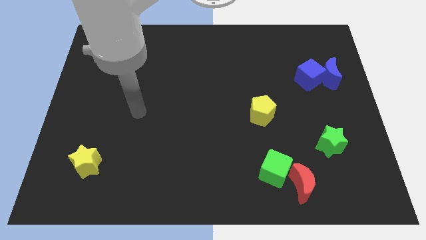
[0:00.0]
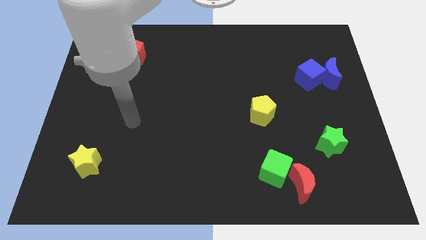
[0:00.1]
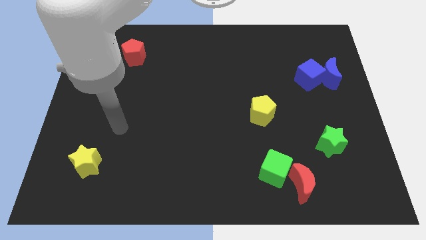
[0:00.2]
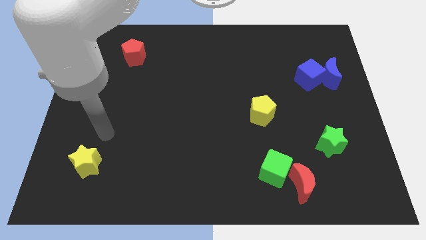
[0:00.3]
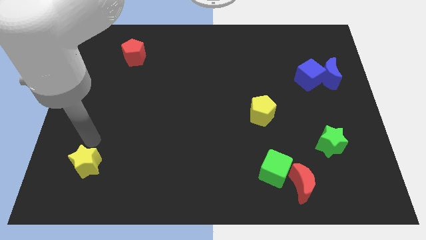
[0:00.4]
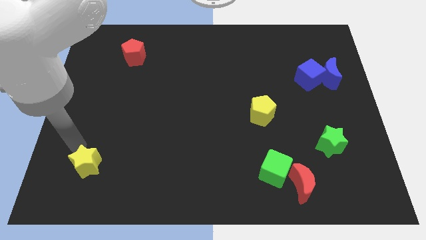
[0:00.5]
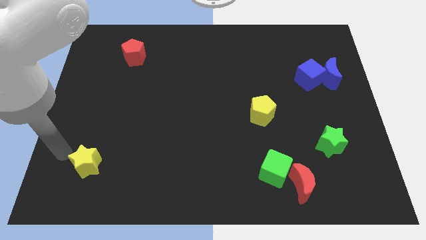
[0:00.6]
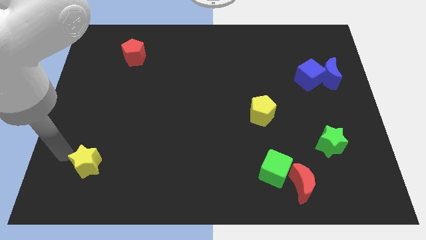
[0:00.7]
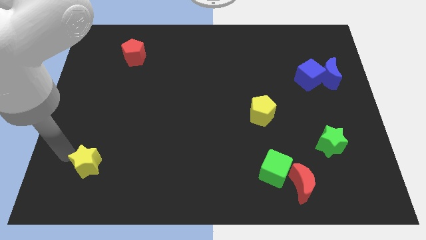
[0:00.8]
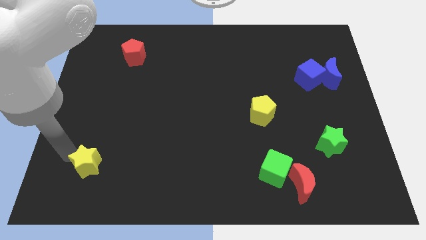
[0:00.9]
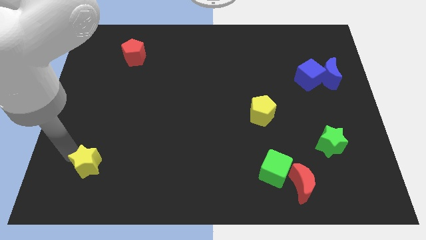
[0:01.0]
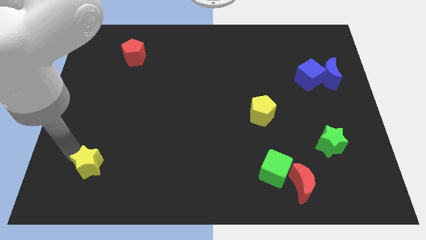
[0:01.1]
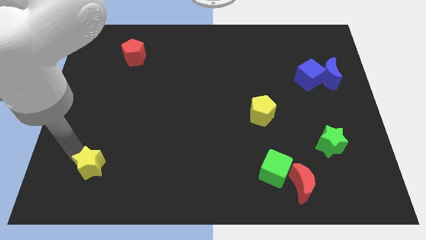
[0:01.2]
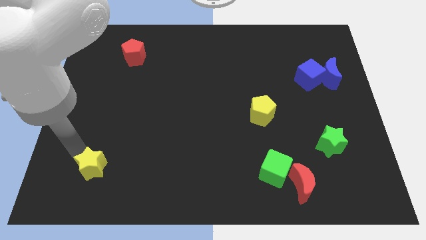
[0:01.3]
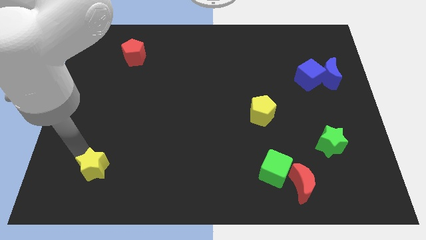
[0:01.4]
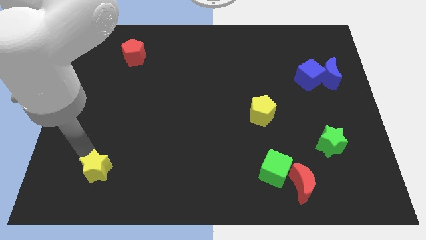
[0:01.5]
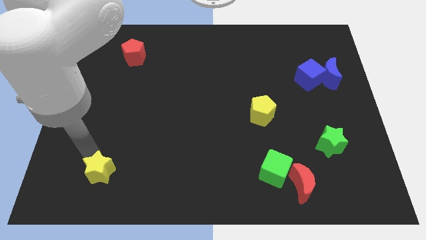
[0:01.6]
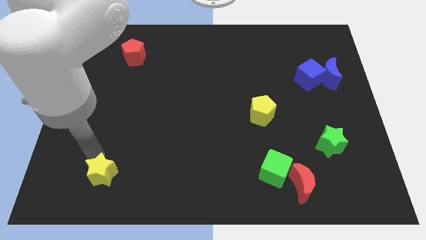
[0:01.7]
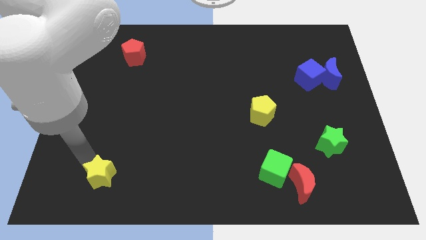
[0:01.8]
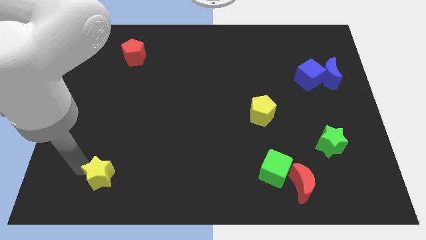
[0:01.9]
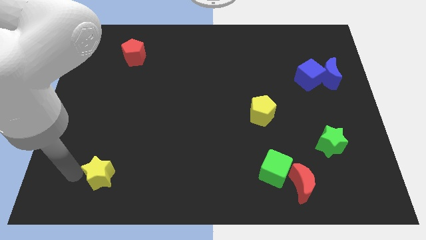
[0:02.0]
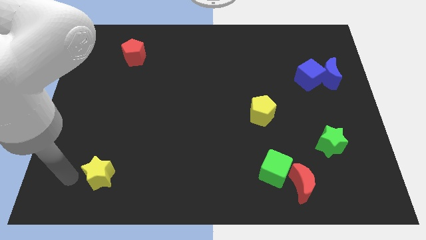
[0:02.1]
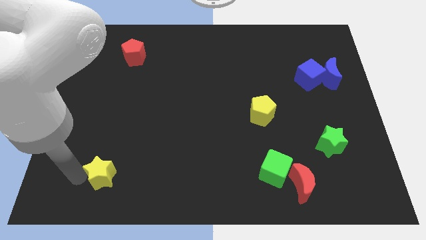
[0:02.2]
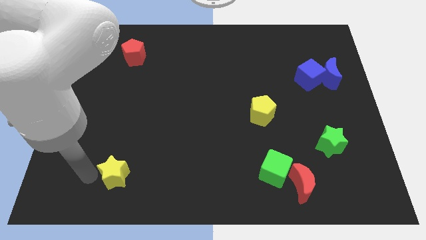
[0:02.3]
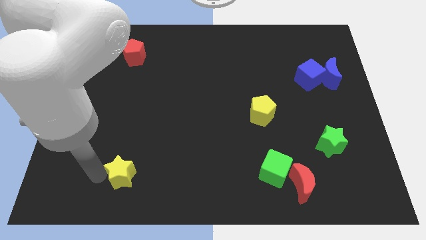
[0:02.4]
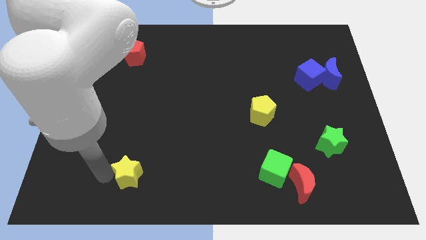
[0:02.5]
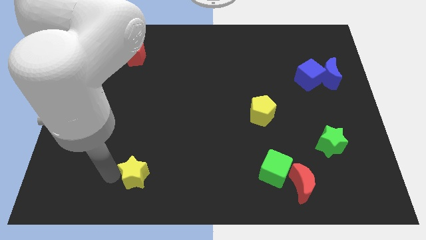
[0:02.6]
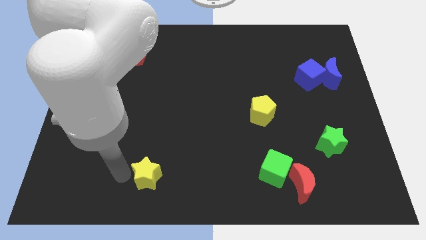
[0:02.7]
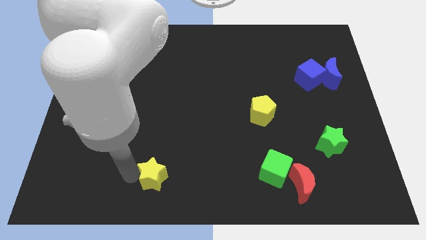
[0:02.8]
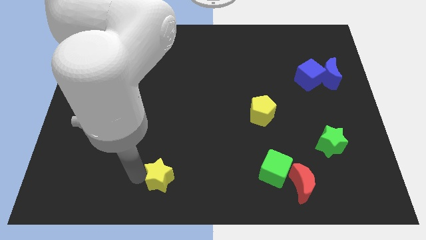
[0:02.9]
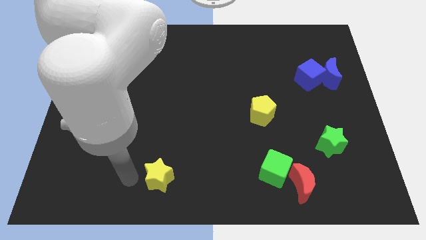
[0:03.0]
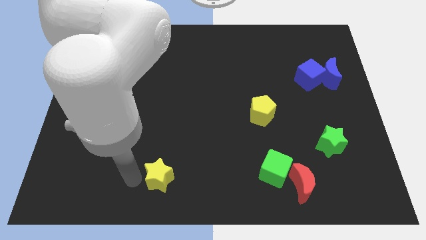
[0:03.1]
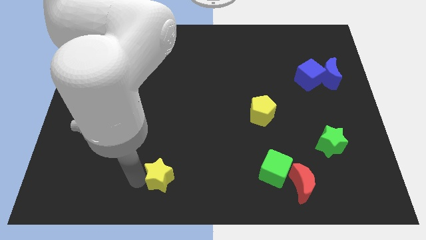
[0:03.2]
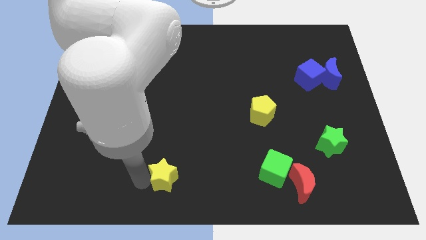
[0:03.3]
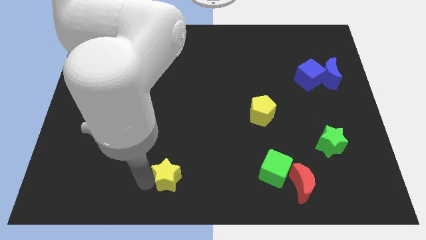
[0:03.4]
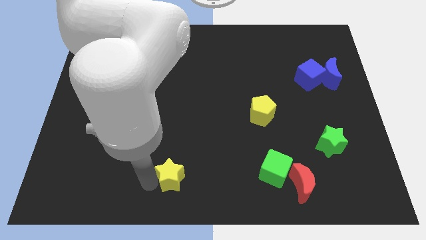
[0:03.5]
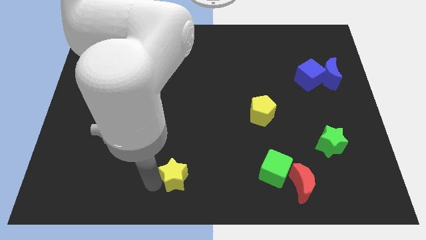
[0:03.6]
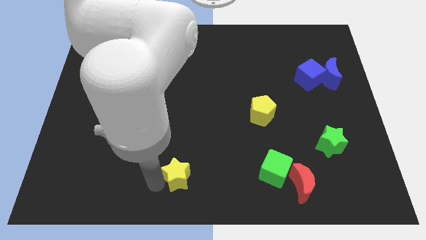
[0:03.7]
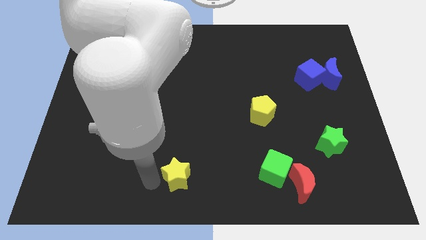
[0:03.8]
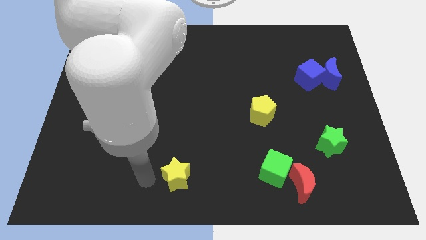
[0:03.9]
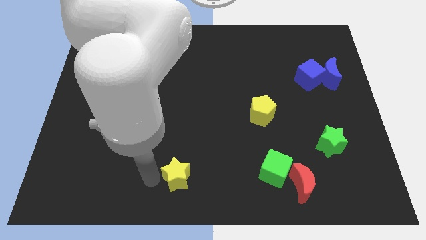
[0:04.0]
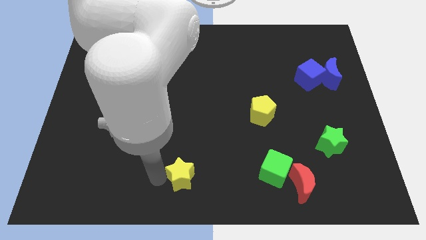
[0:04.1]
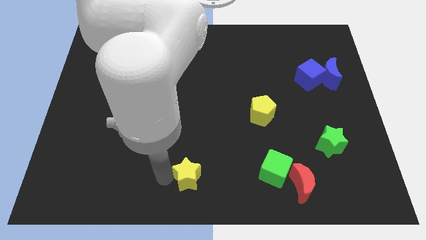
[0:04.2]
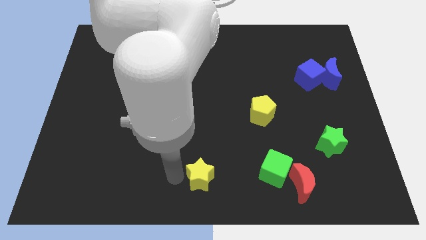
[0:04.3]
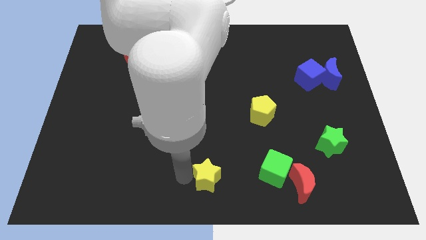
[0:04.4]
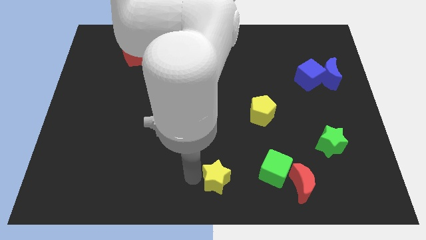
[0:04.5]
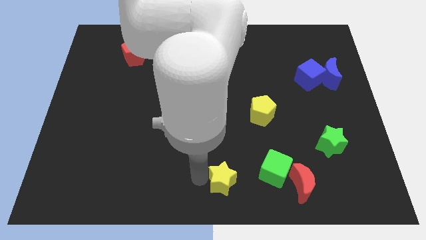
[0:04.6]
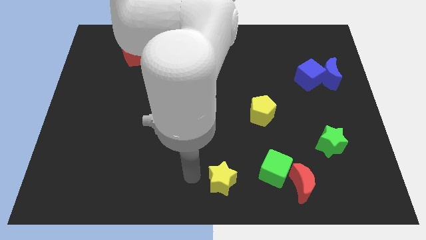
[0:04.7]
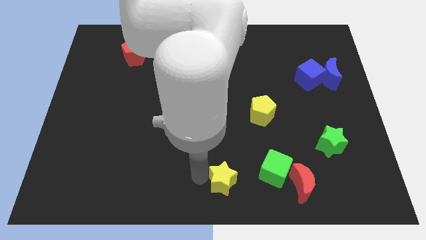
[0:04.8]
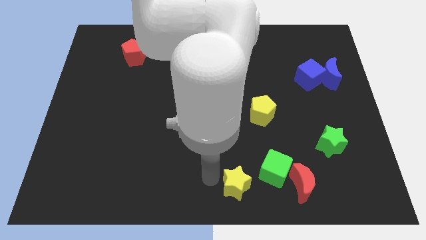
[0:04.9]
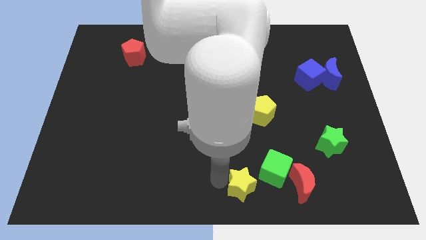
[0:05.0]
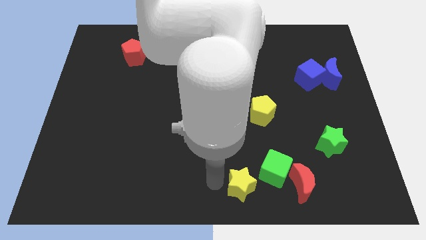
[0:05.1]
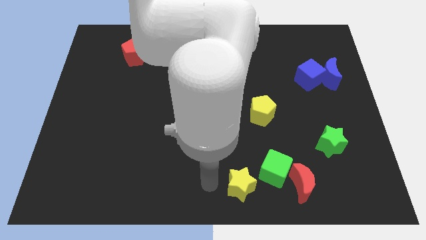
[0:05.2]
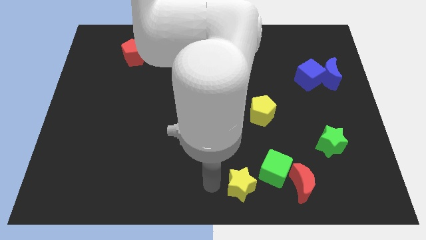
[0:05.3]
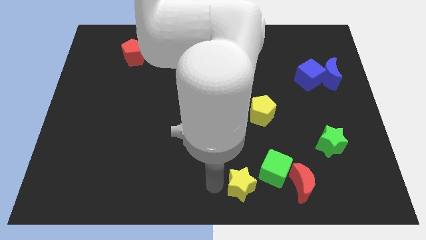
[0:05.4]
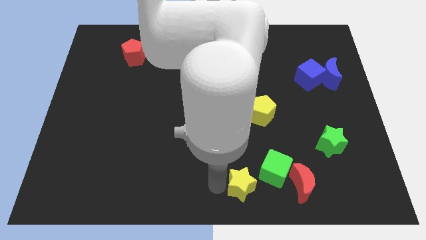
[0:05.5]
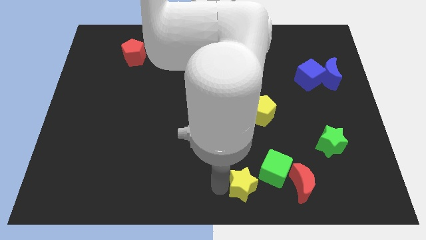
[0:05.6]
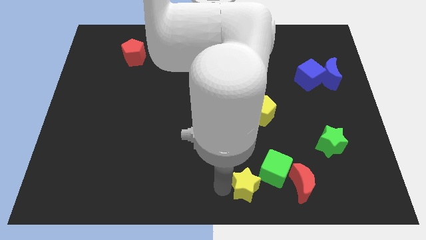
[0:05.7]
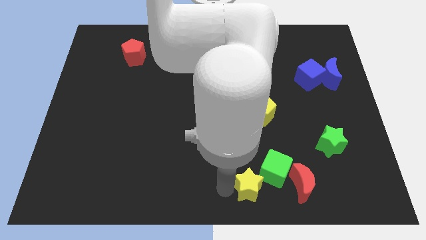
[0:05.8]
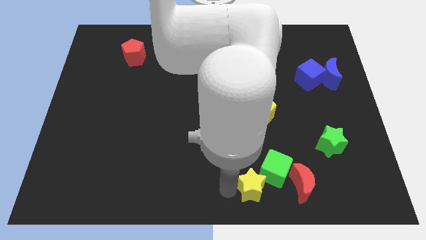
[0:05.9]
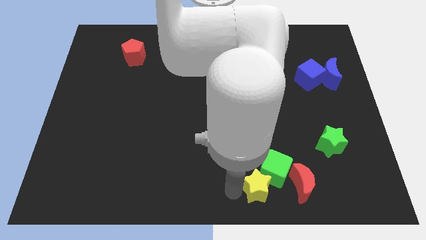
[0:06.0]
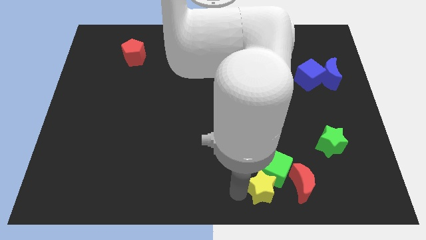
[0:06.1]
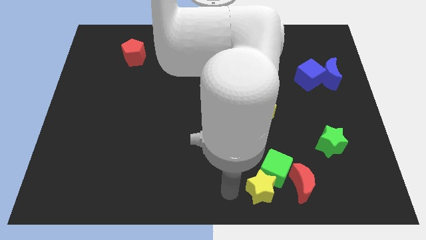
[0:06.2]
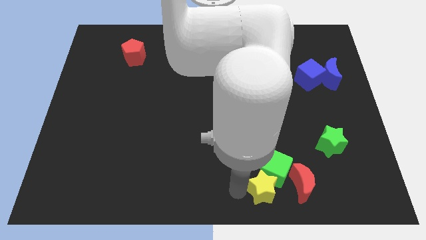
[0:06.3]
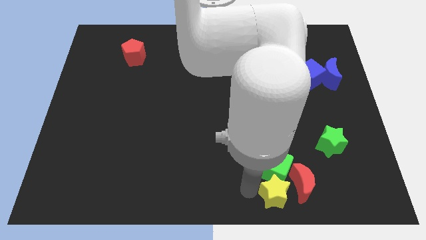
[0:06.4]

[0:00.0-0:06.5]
move the yellow star next to the red moon
